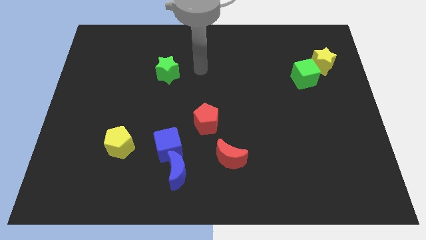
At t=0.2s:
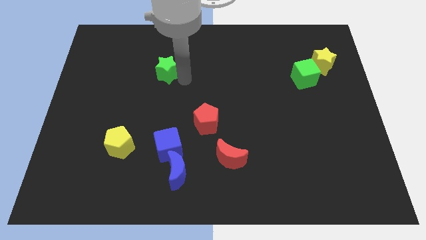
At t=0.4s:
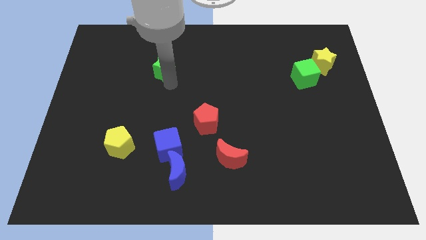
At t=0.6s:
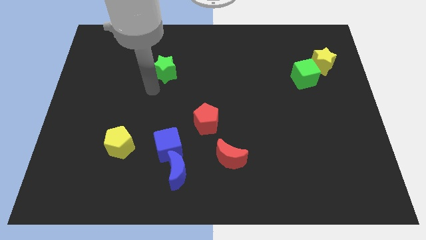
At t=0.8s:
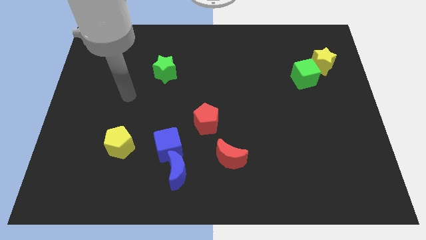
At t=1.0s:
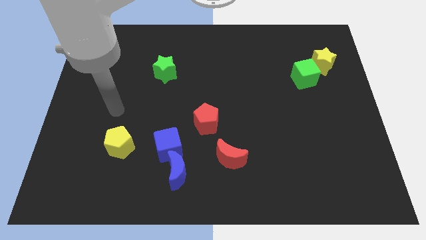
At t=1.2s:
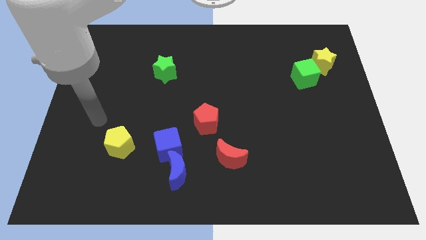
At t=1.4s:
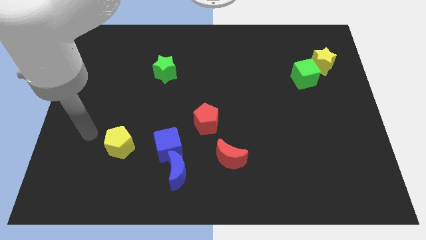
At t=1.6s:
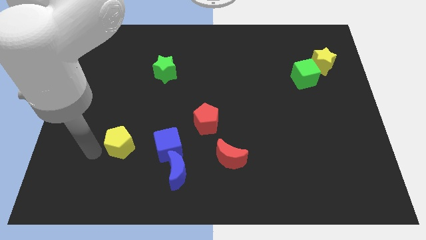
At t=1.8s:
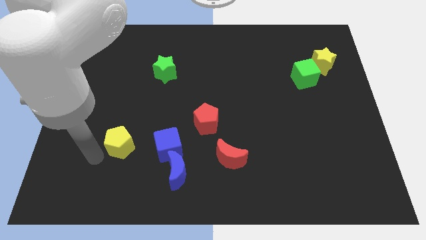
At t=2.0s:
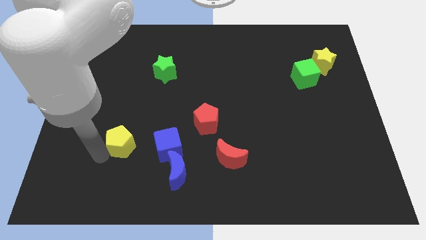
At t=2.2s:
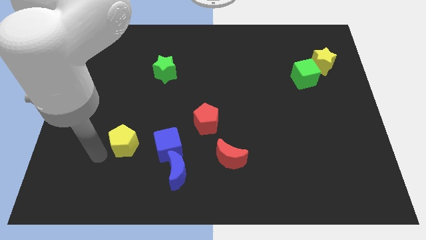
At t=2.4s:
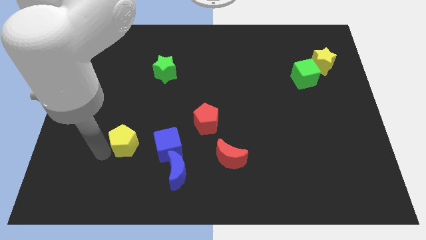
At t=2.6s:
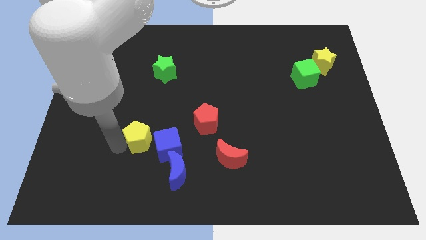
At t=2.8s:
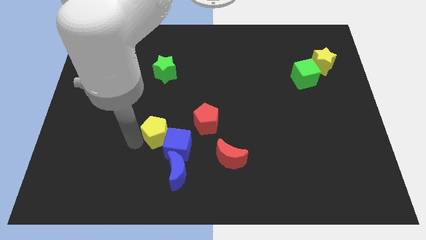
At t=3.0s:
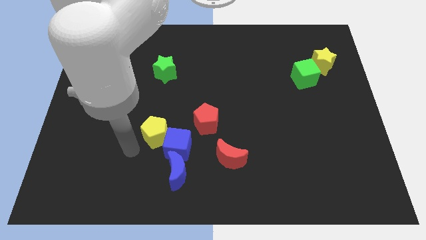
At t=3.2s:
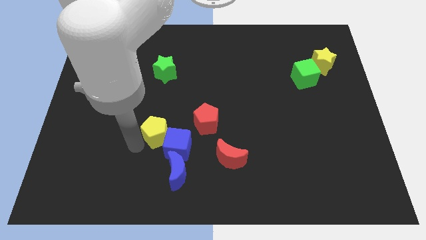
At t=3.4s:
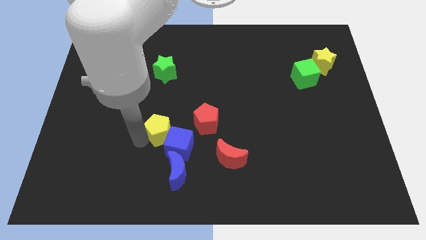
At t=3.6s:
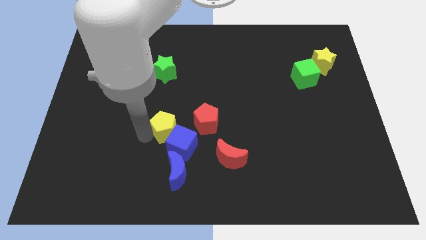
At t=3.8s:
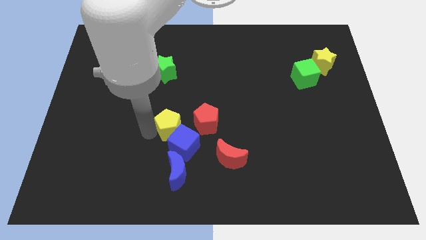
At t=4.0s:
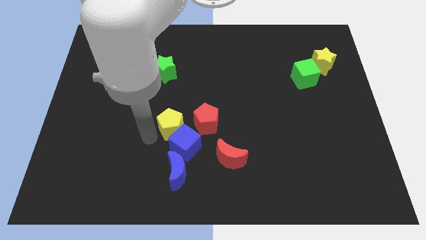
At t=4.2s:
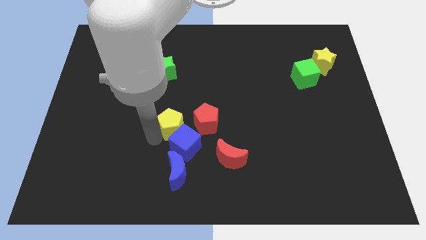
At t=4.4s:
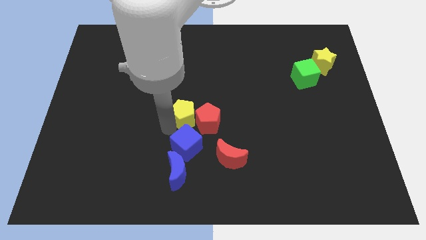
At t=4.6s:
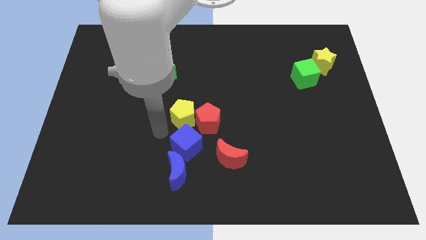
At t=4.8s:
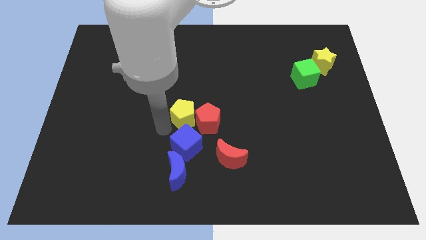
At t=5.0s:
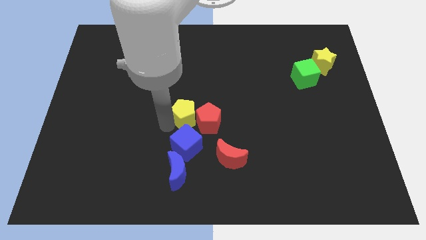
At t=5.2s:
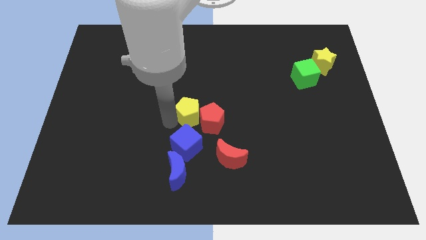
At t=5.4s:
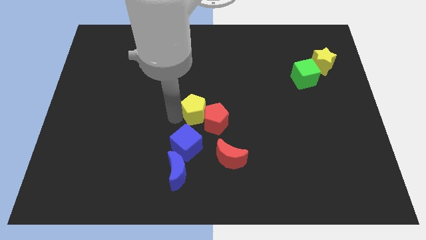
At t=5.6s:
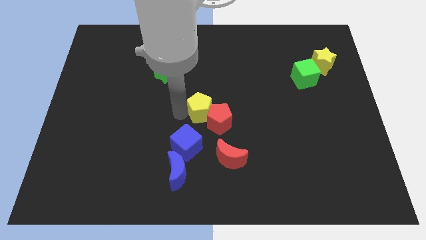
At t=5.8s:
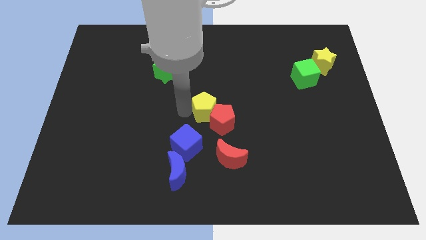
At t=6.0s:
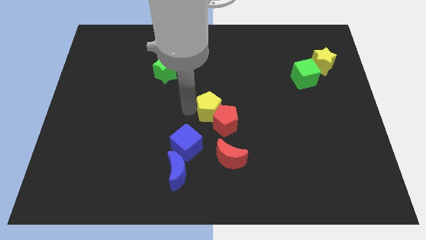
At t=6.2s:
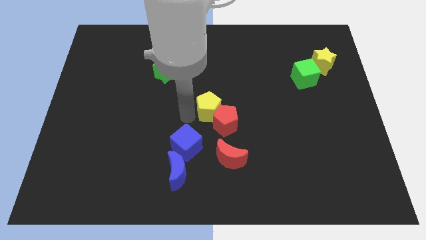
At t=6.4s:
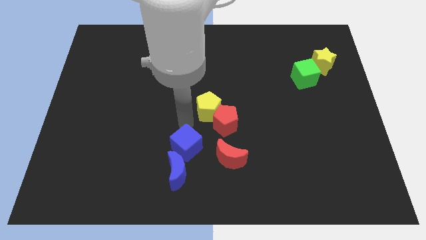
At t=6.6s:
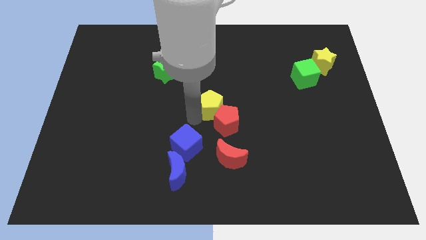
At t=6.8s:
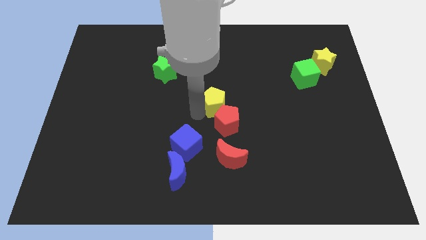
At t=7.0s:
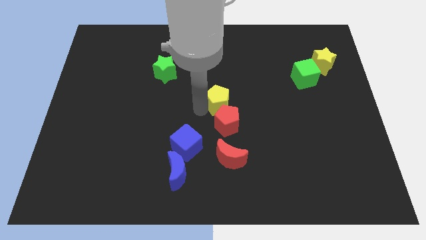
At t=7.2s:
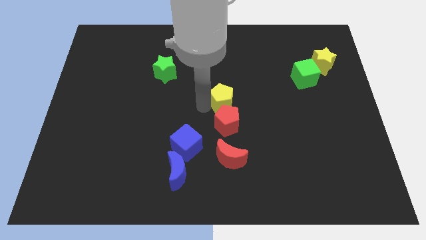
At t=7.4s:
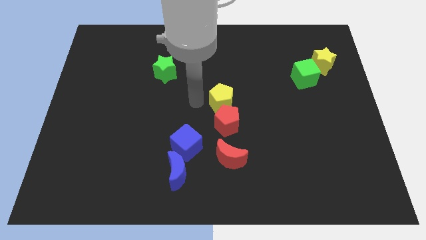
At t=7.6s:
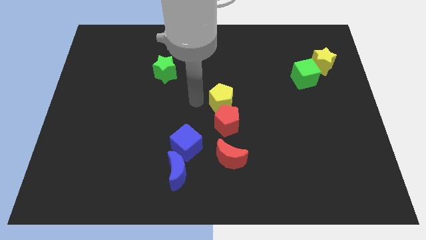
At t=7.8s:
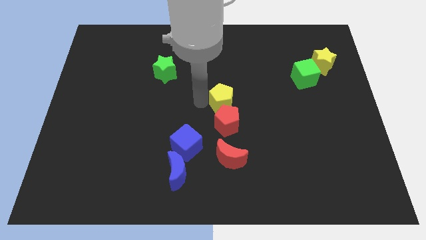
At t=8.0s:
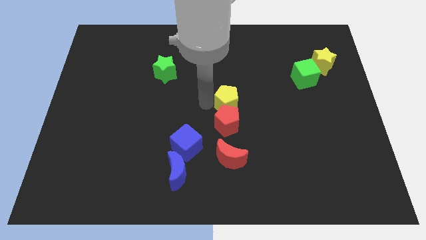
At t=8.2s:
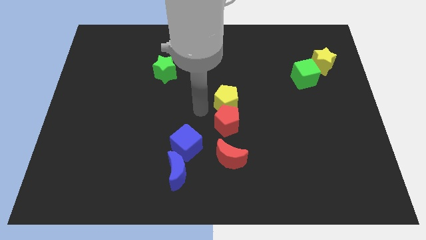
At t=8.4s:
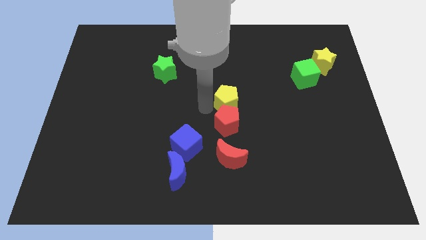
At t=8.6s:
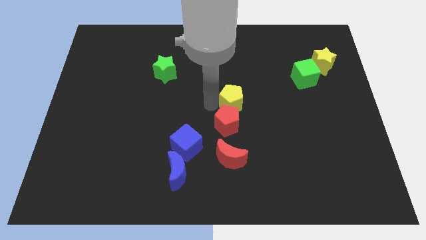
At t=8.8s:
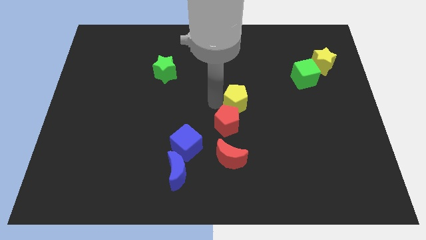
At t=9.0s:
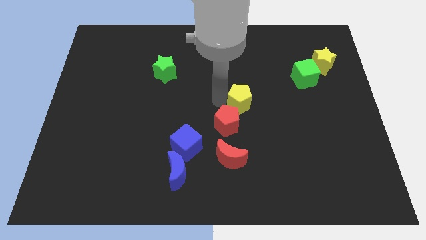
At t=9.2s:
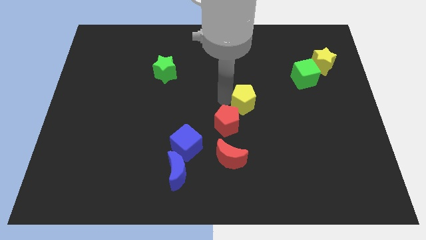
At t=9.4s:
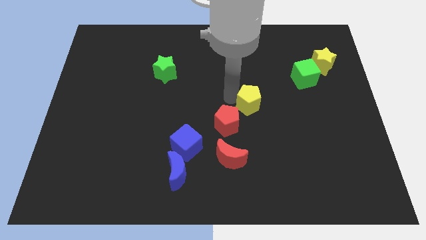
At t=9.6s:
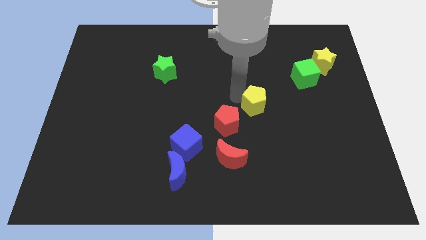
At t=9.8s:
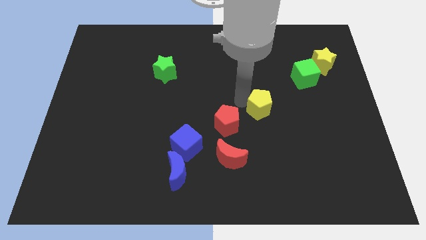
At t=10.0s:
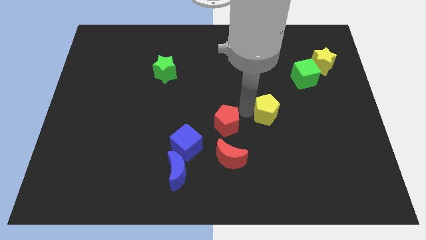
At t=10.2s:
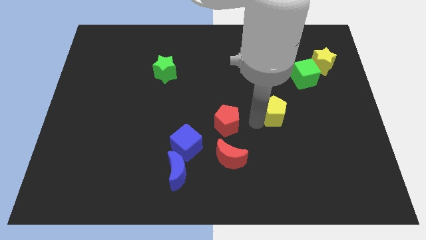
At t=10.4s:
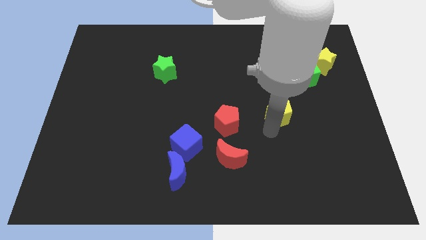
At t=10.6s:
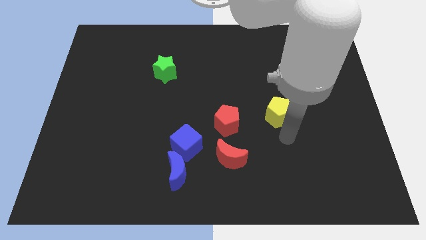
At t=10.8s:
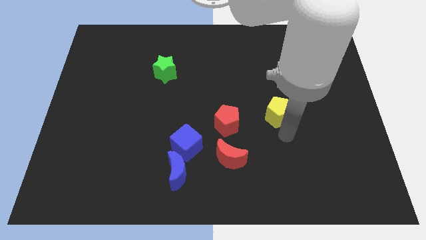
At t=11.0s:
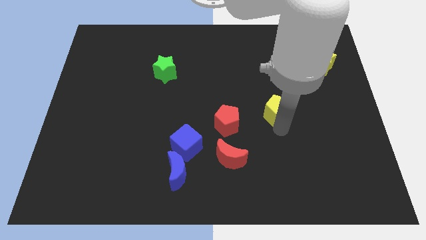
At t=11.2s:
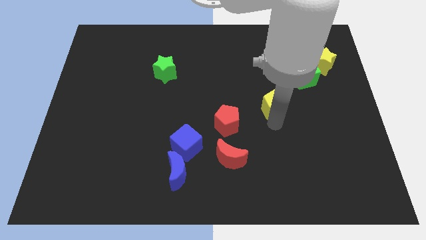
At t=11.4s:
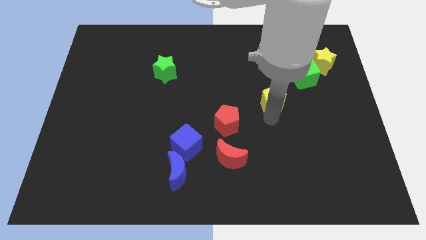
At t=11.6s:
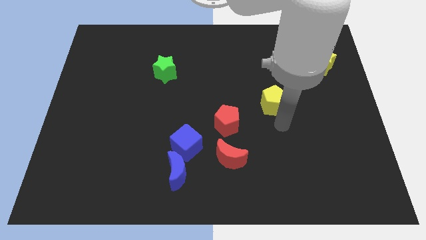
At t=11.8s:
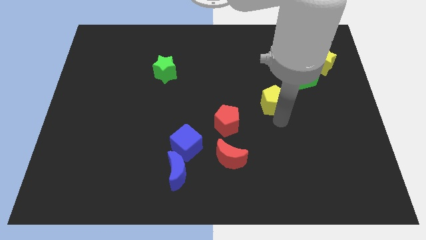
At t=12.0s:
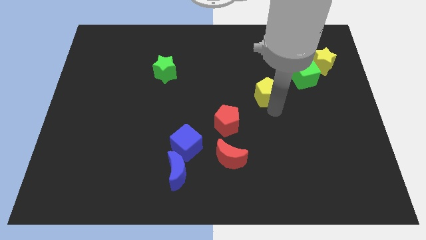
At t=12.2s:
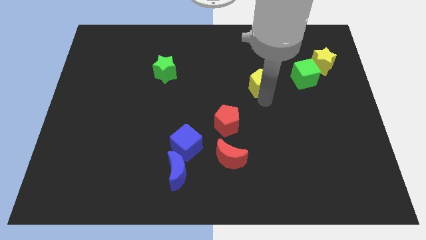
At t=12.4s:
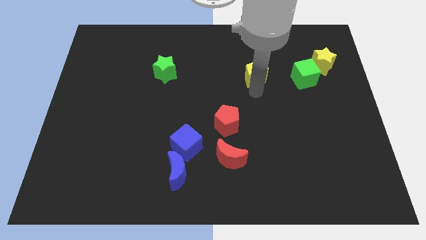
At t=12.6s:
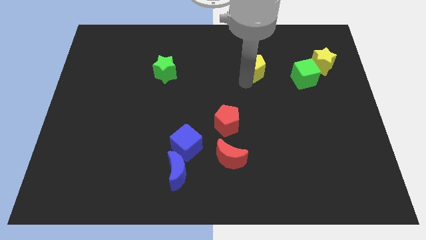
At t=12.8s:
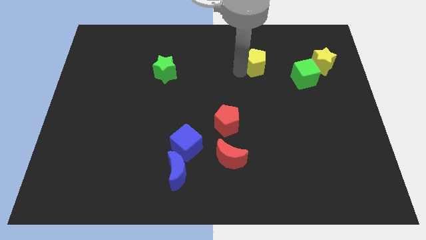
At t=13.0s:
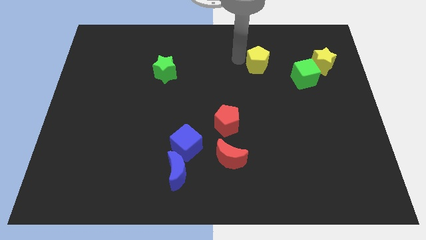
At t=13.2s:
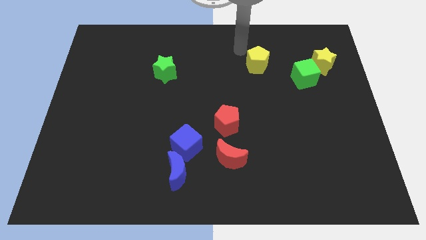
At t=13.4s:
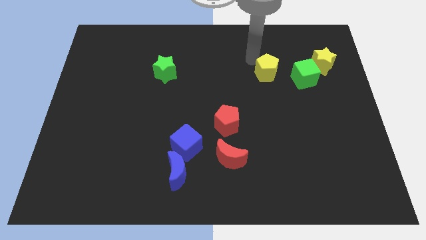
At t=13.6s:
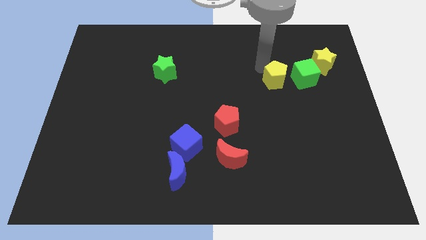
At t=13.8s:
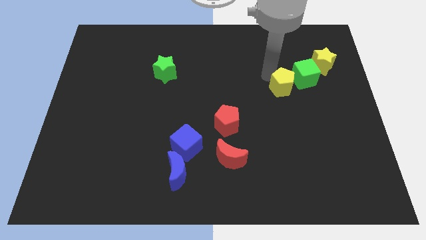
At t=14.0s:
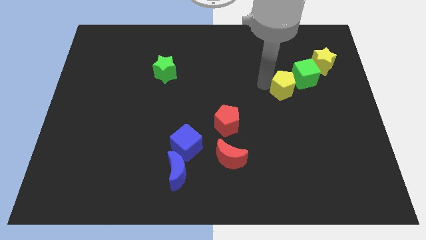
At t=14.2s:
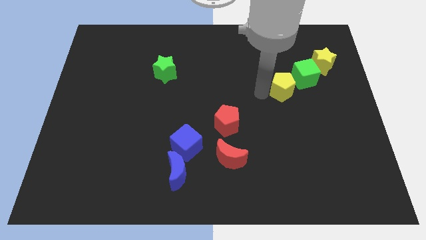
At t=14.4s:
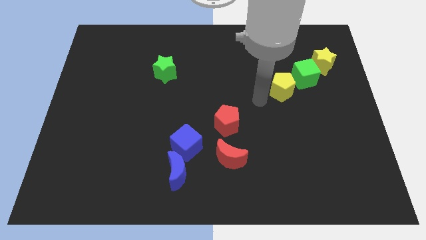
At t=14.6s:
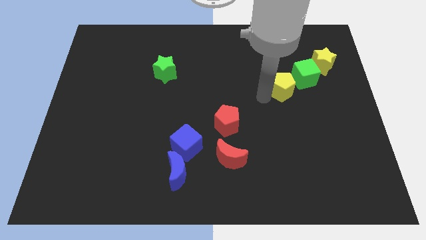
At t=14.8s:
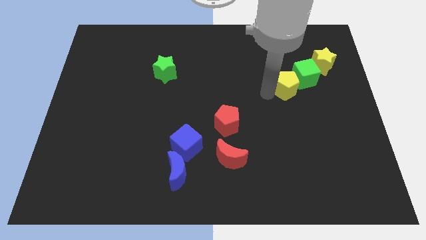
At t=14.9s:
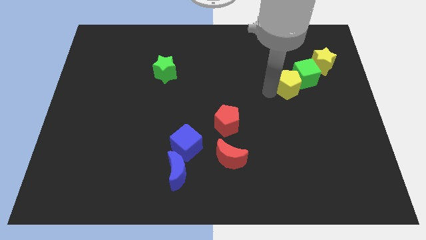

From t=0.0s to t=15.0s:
move the yellow pentagon close to the green cube
